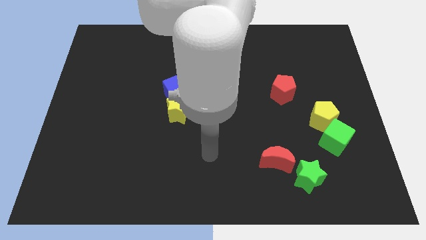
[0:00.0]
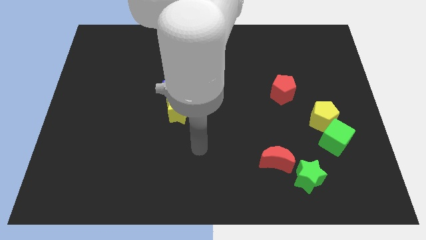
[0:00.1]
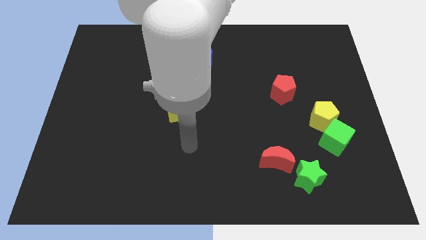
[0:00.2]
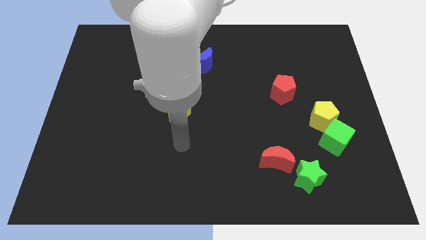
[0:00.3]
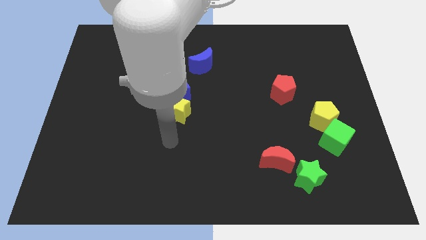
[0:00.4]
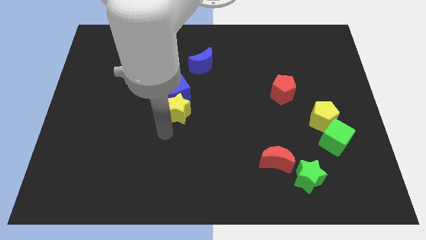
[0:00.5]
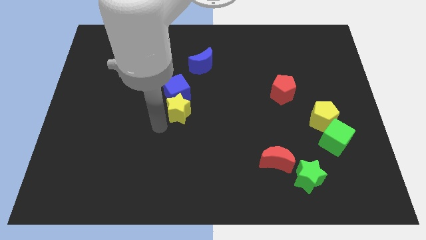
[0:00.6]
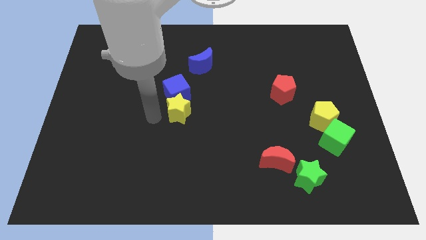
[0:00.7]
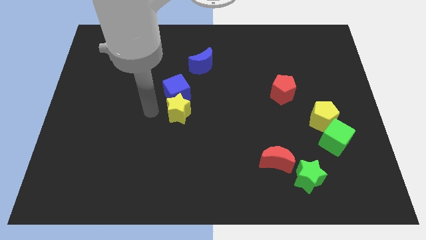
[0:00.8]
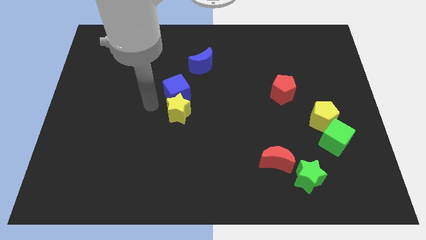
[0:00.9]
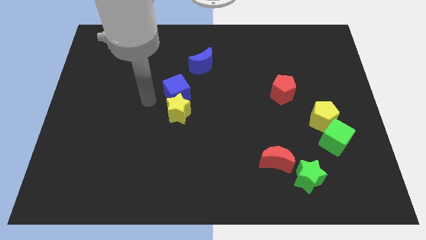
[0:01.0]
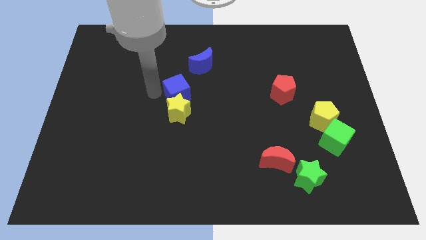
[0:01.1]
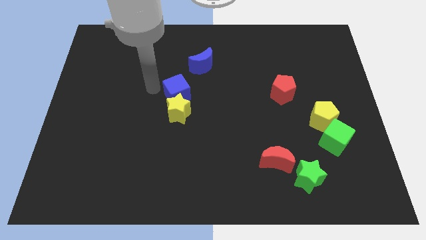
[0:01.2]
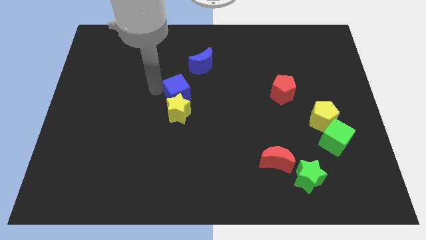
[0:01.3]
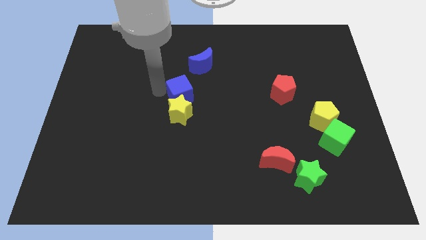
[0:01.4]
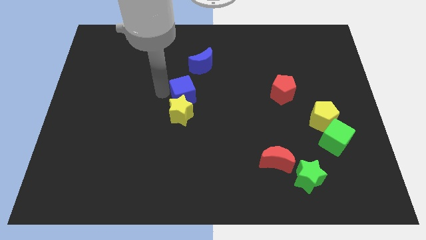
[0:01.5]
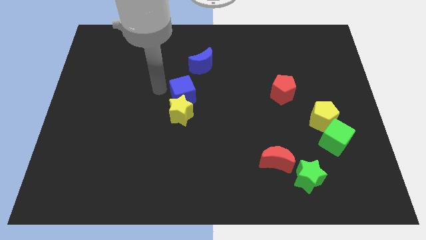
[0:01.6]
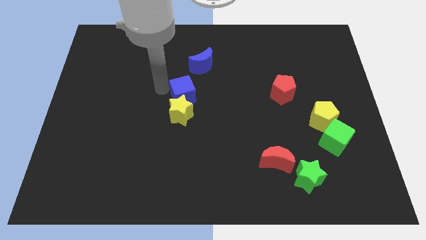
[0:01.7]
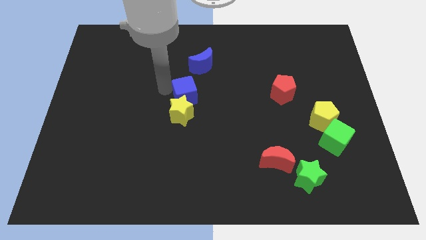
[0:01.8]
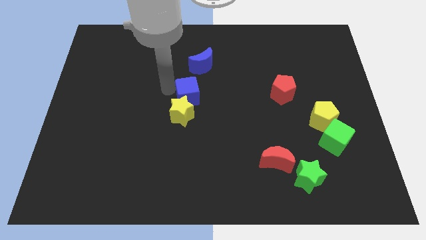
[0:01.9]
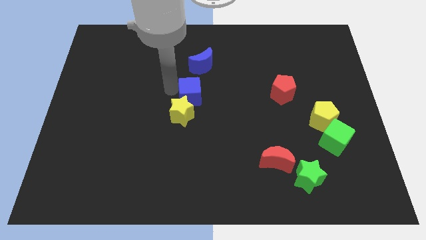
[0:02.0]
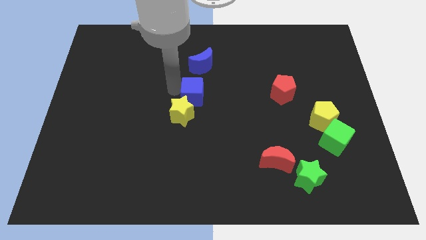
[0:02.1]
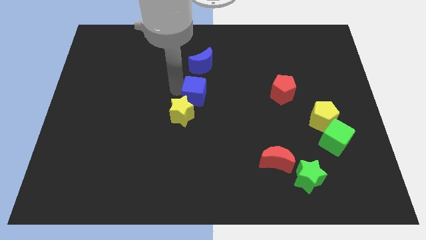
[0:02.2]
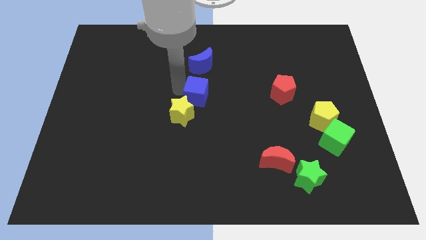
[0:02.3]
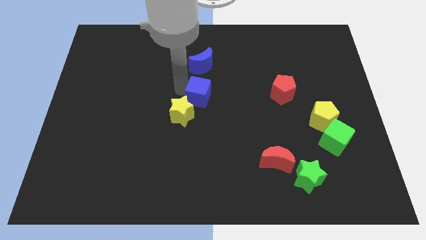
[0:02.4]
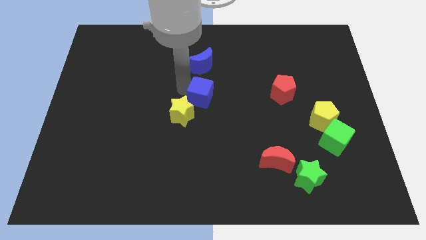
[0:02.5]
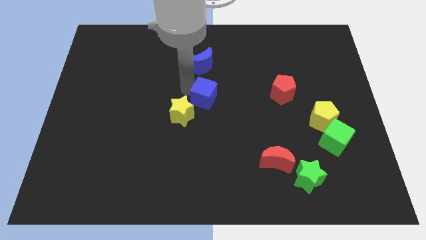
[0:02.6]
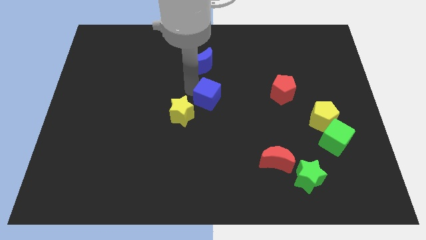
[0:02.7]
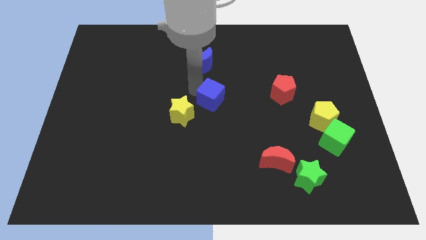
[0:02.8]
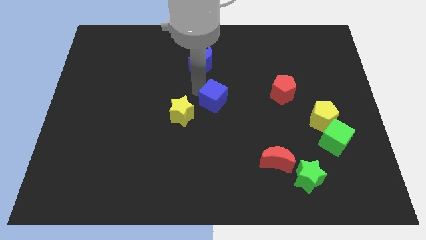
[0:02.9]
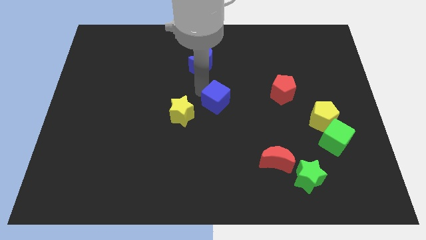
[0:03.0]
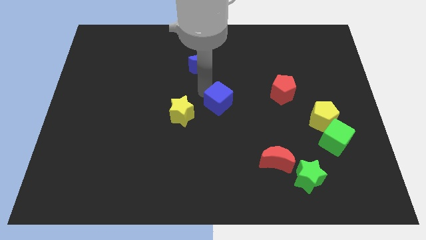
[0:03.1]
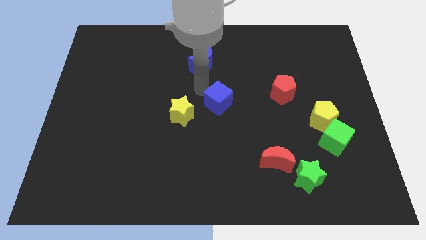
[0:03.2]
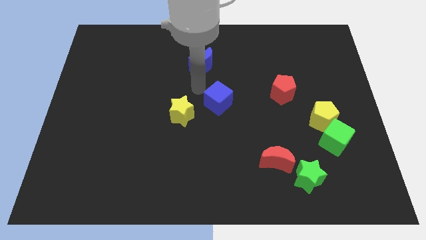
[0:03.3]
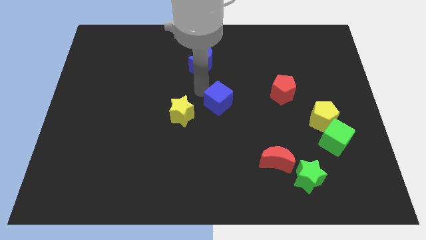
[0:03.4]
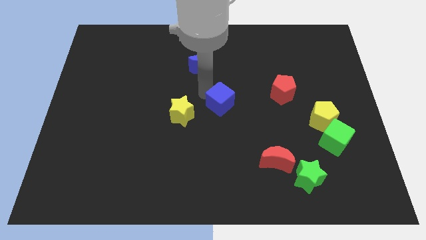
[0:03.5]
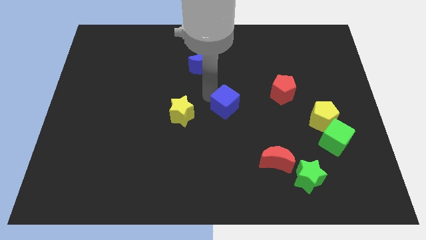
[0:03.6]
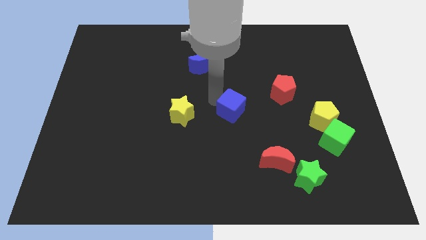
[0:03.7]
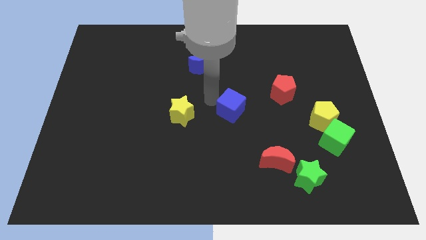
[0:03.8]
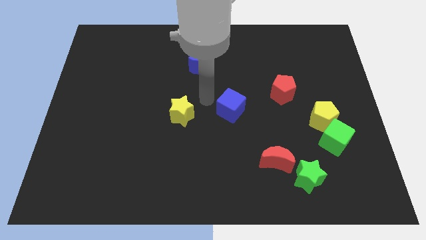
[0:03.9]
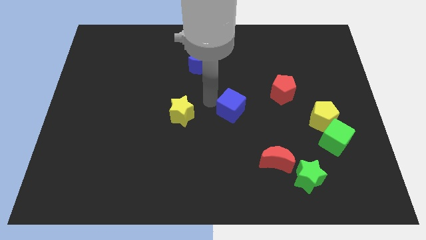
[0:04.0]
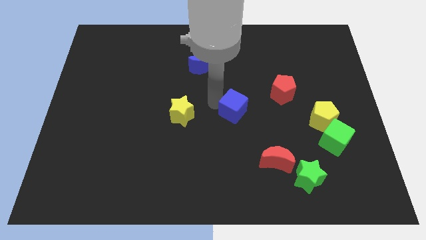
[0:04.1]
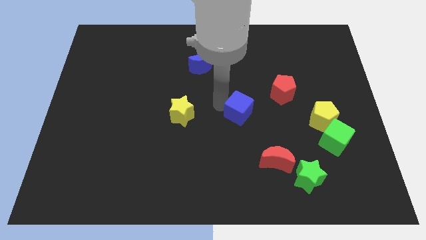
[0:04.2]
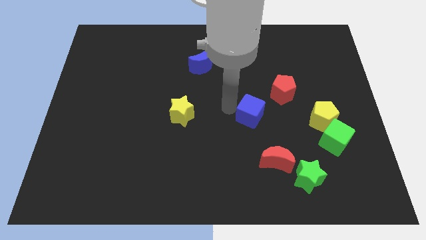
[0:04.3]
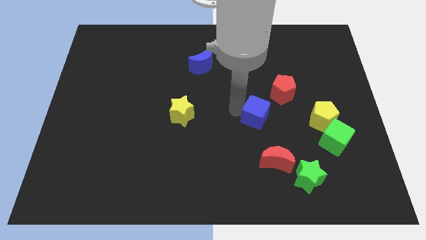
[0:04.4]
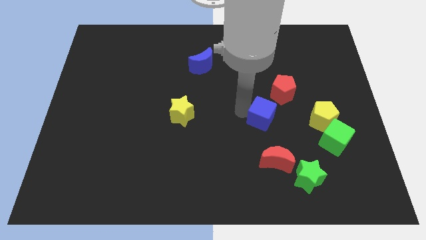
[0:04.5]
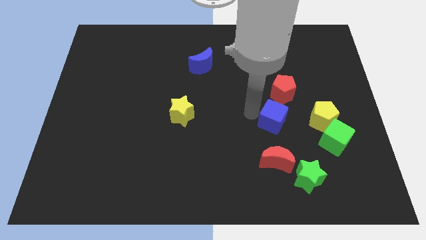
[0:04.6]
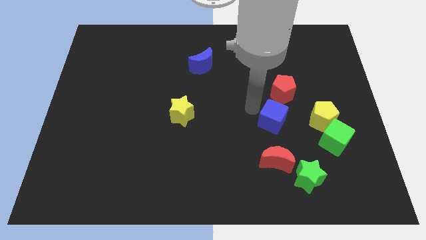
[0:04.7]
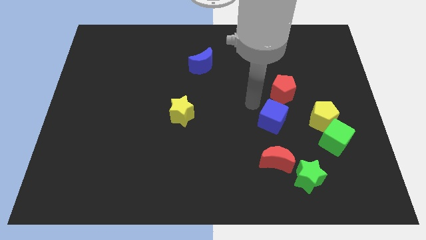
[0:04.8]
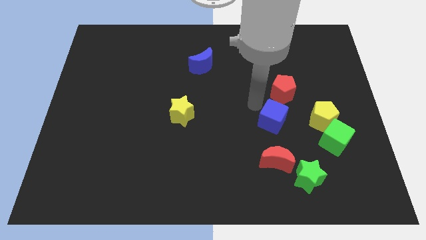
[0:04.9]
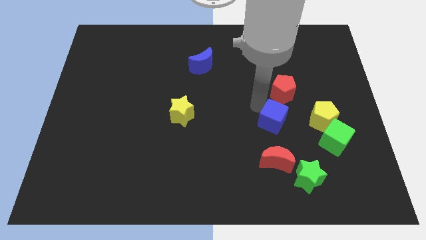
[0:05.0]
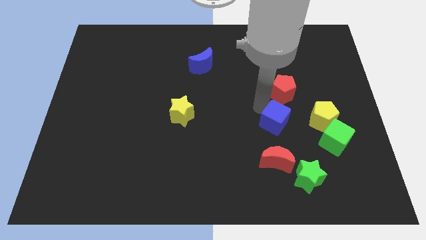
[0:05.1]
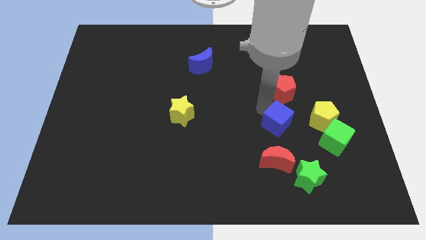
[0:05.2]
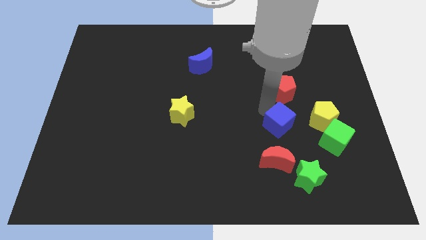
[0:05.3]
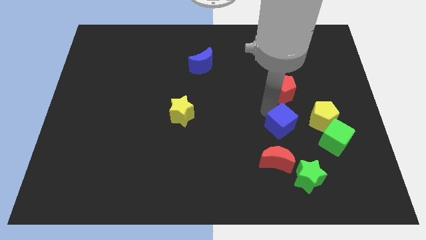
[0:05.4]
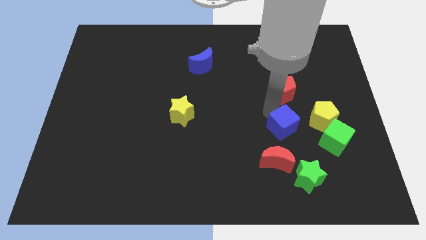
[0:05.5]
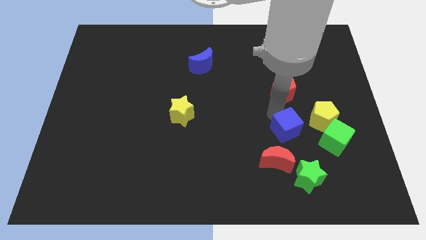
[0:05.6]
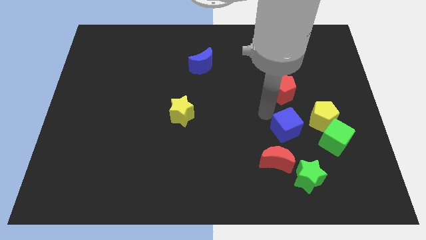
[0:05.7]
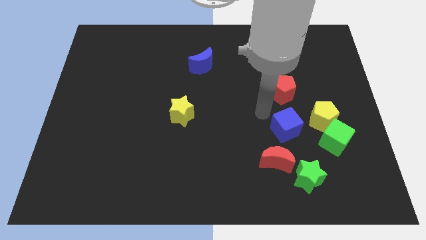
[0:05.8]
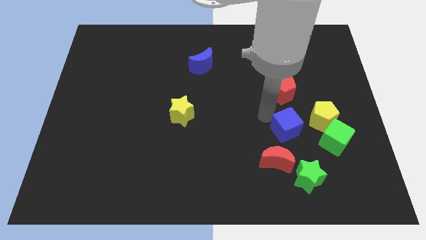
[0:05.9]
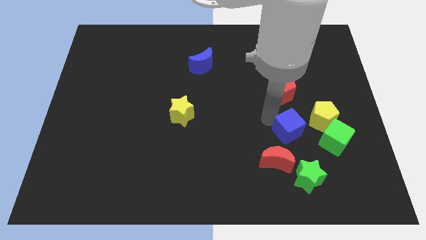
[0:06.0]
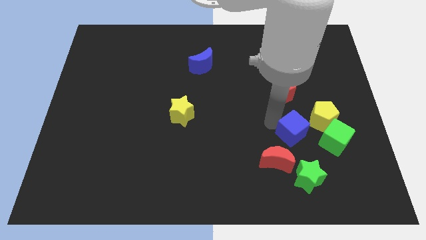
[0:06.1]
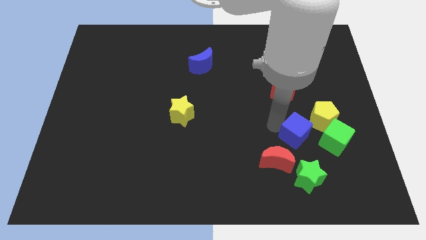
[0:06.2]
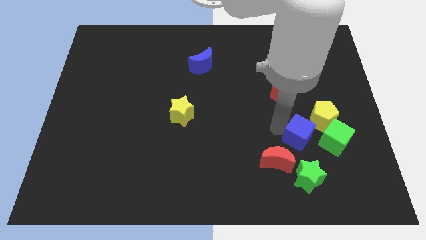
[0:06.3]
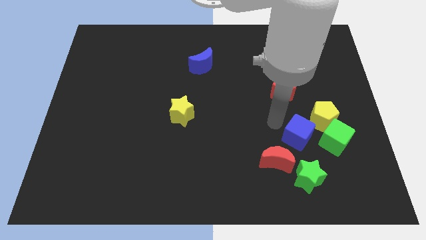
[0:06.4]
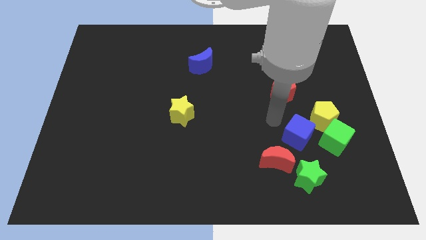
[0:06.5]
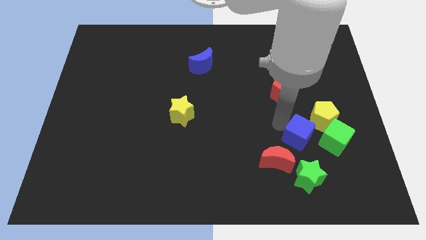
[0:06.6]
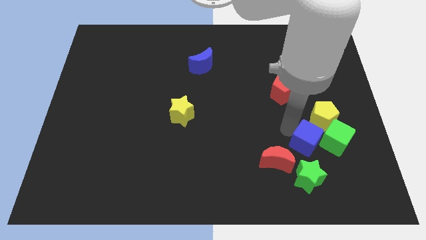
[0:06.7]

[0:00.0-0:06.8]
move the blue cube to the bottom of the yellow pentagon

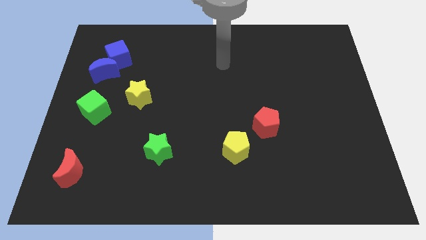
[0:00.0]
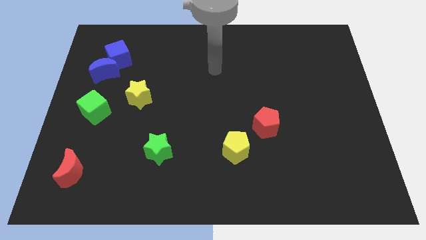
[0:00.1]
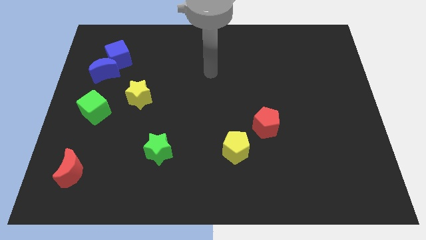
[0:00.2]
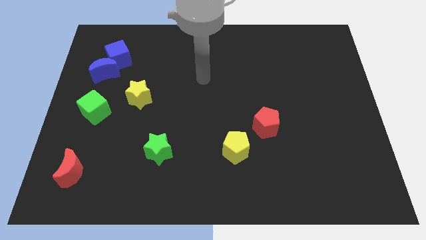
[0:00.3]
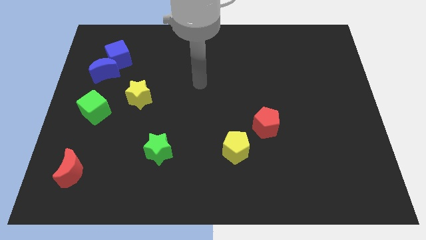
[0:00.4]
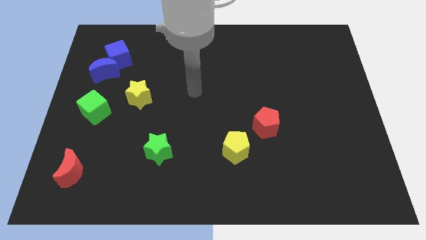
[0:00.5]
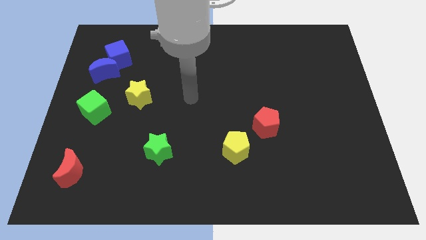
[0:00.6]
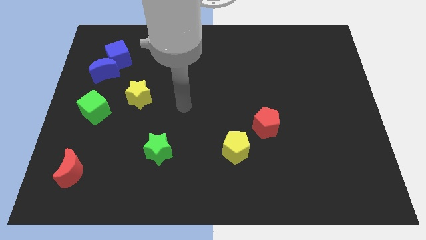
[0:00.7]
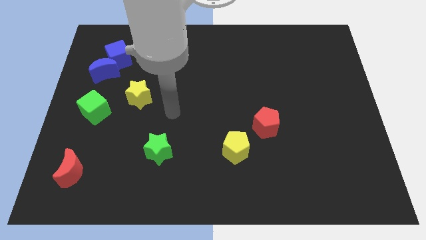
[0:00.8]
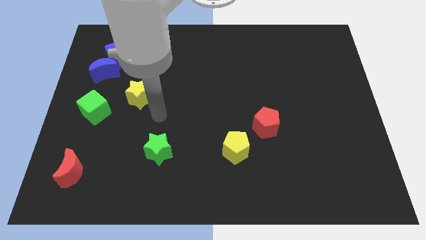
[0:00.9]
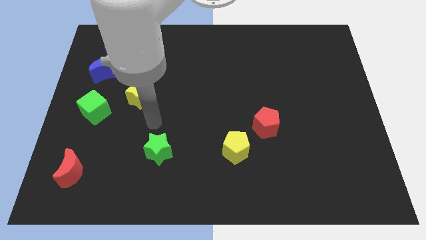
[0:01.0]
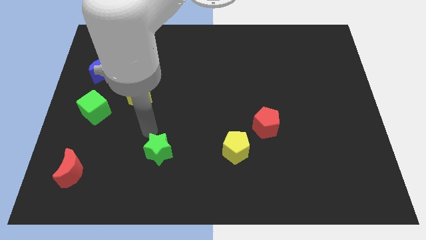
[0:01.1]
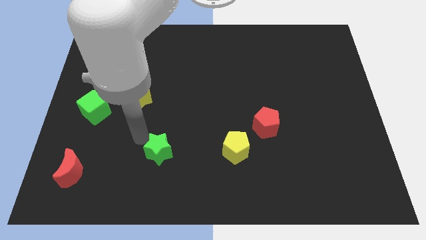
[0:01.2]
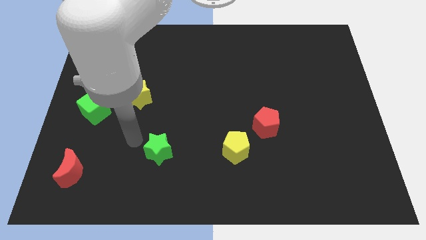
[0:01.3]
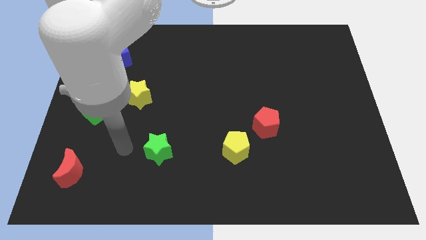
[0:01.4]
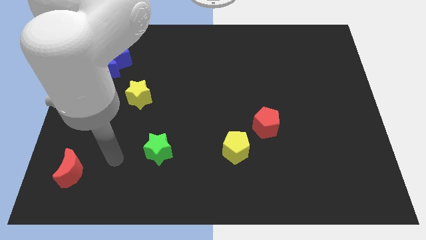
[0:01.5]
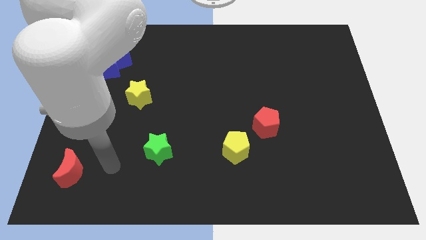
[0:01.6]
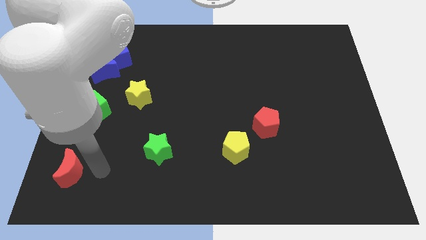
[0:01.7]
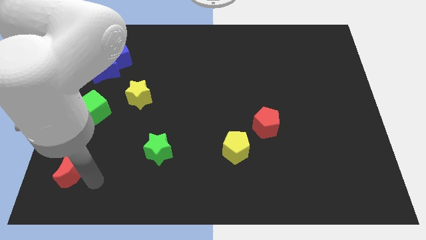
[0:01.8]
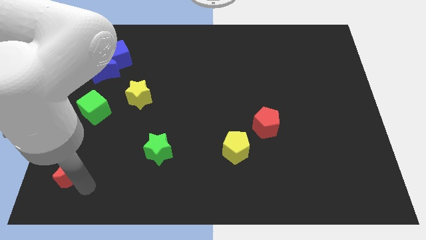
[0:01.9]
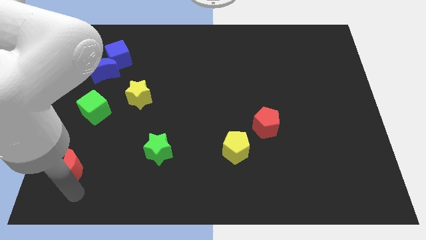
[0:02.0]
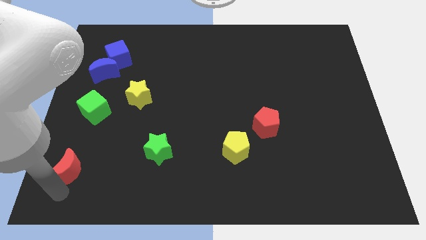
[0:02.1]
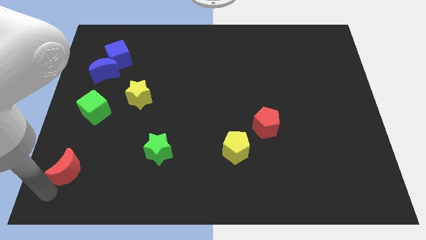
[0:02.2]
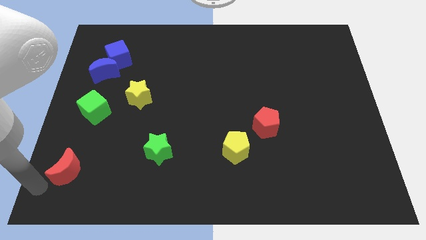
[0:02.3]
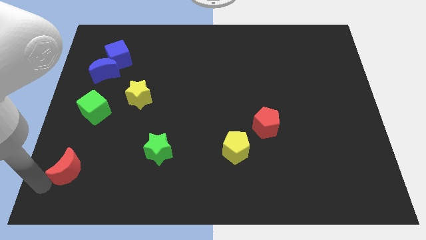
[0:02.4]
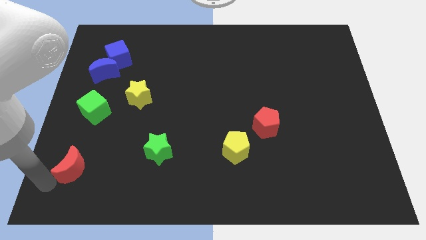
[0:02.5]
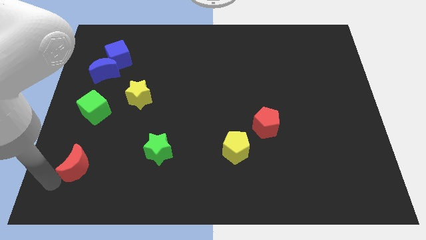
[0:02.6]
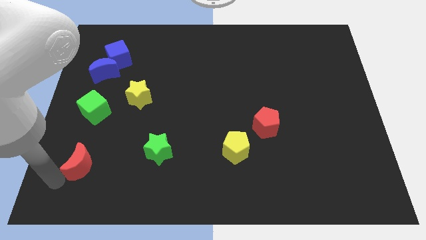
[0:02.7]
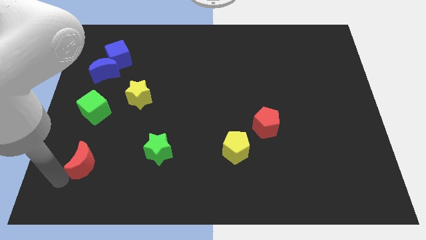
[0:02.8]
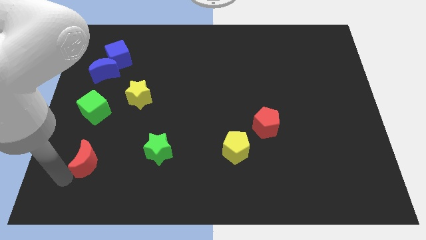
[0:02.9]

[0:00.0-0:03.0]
push the red moon left of the green star
